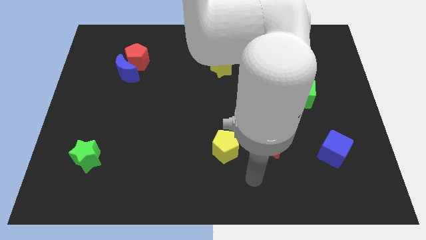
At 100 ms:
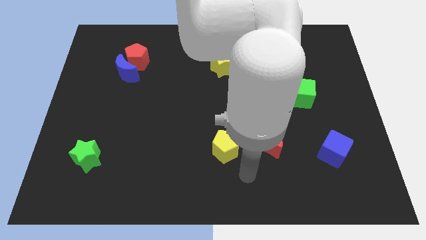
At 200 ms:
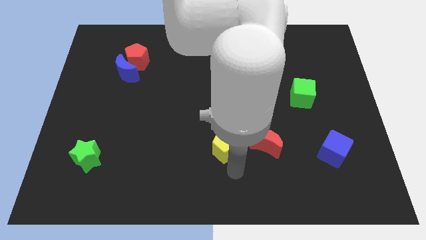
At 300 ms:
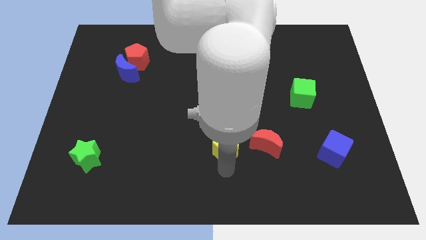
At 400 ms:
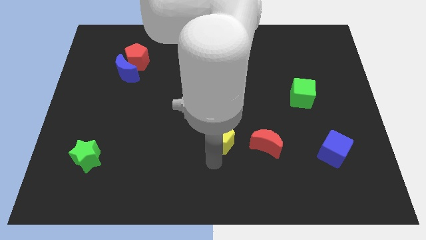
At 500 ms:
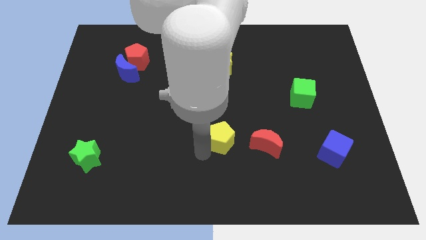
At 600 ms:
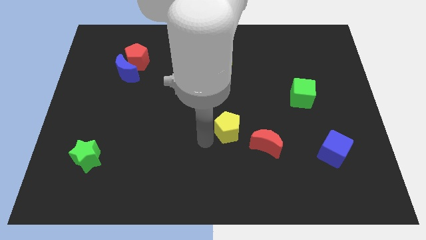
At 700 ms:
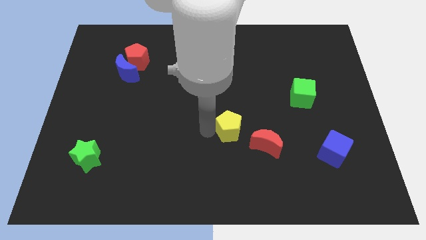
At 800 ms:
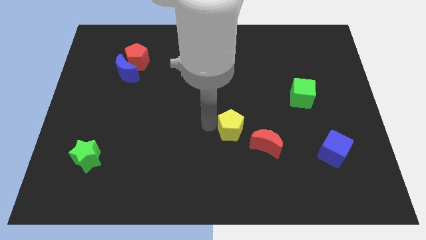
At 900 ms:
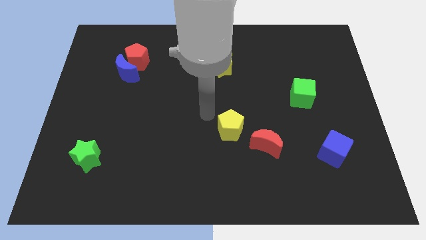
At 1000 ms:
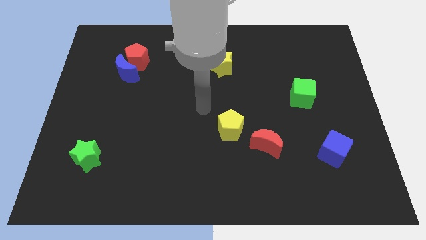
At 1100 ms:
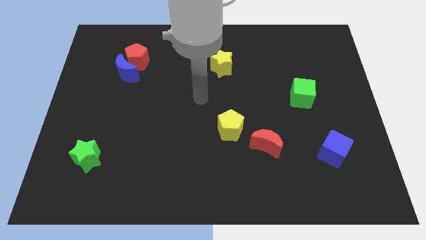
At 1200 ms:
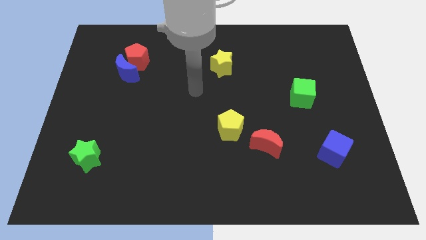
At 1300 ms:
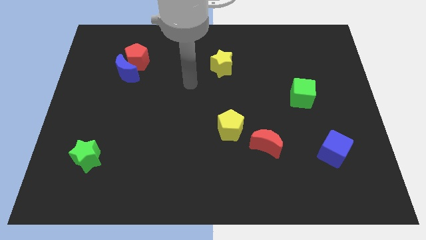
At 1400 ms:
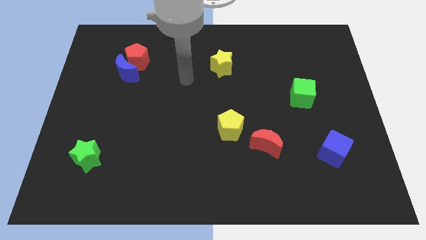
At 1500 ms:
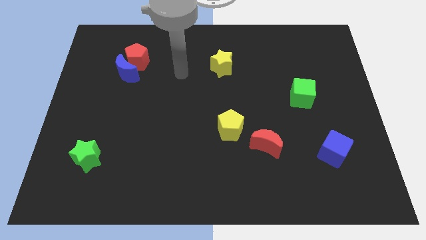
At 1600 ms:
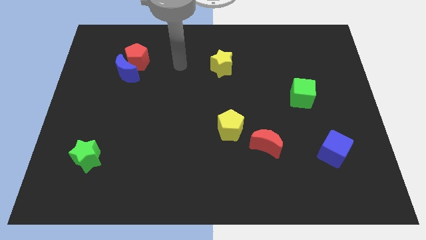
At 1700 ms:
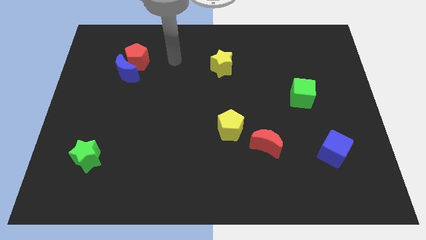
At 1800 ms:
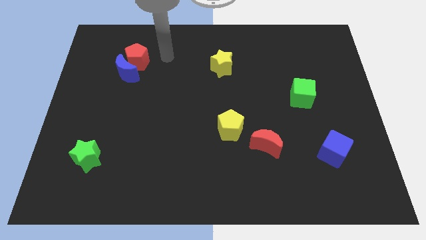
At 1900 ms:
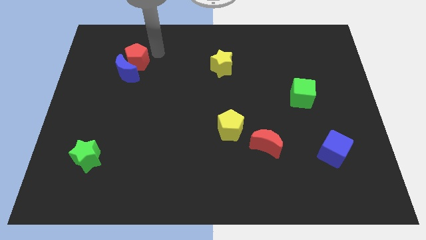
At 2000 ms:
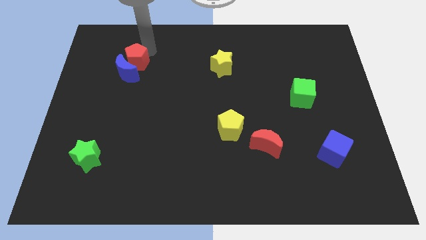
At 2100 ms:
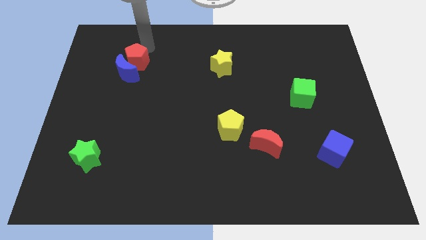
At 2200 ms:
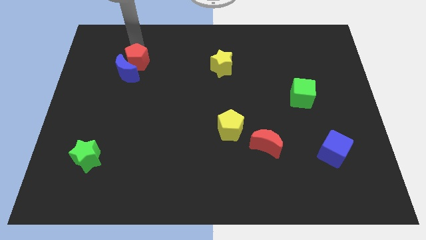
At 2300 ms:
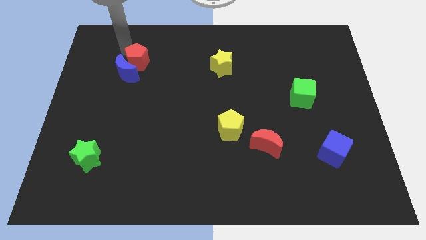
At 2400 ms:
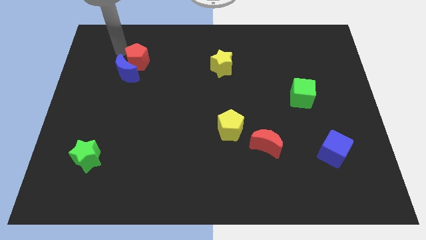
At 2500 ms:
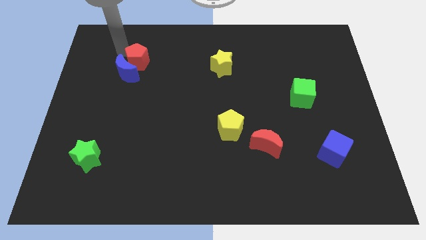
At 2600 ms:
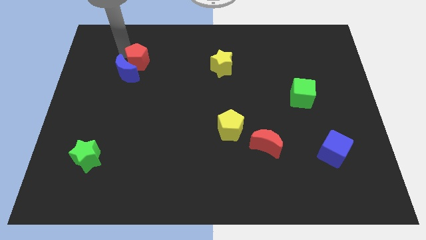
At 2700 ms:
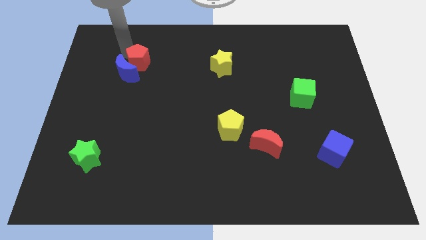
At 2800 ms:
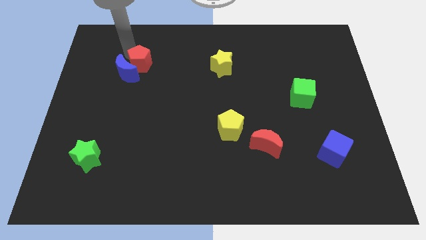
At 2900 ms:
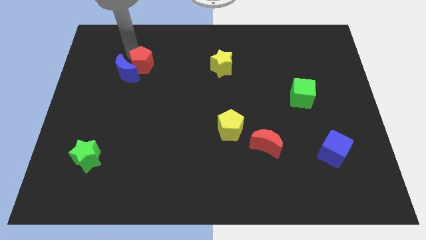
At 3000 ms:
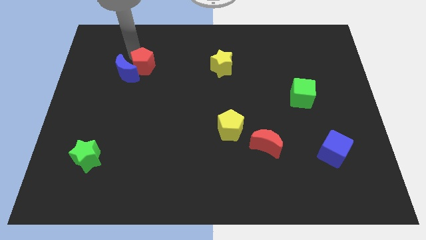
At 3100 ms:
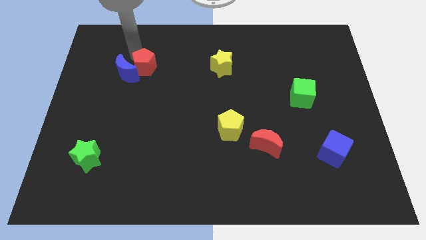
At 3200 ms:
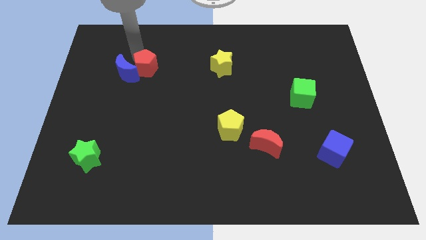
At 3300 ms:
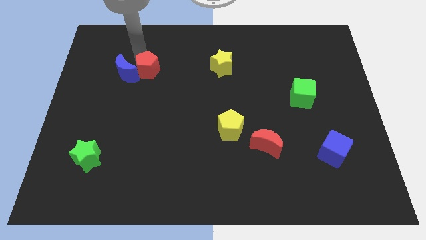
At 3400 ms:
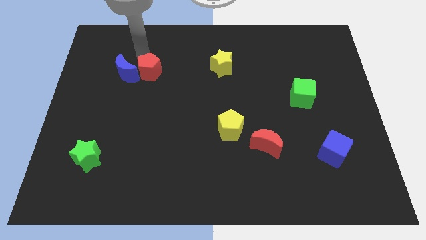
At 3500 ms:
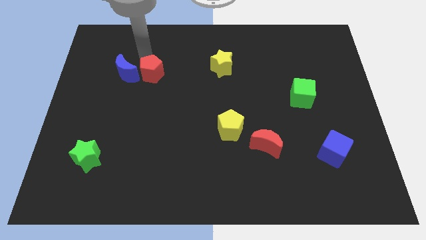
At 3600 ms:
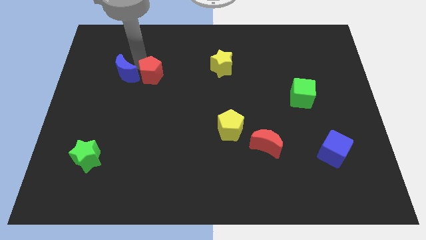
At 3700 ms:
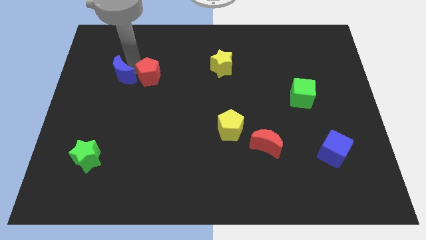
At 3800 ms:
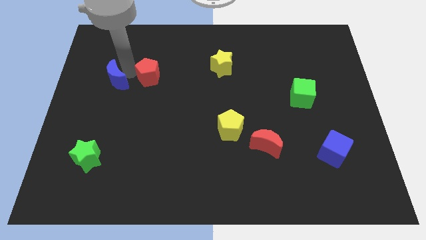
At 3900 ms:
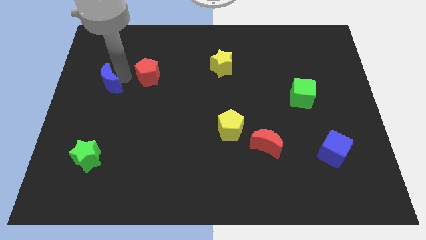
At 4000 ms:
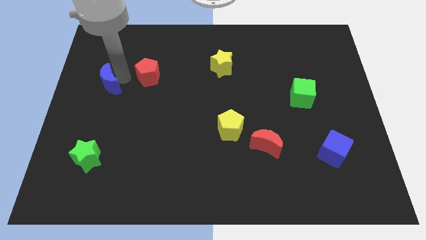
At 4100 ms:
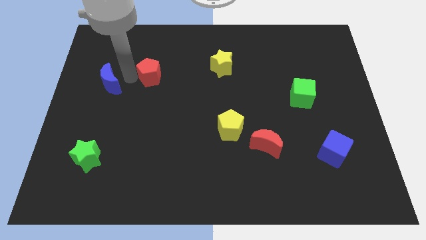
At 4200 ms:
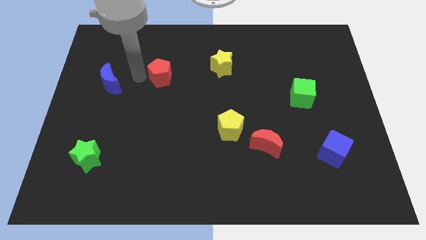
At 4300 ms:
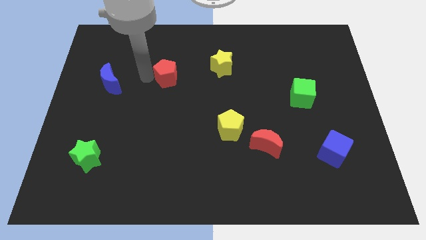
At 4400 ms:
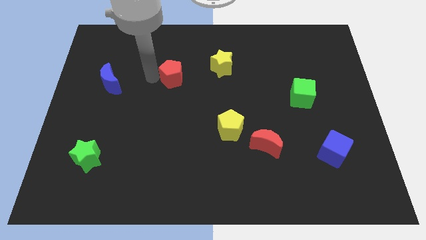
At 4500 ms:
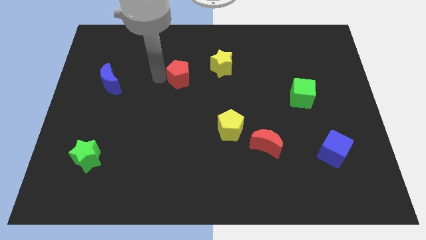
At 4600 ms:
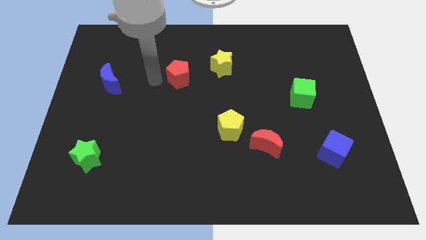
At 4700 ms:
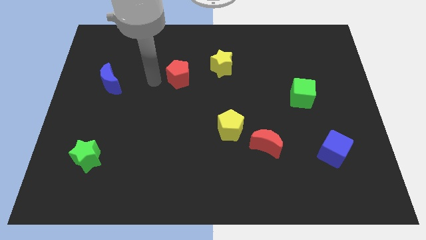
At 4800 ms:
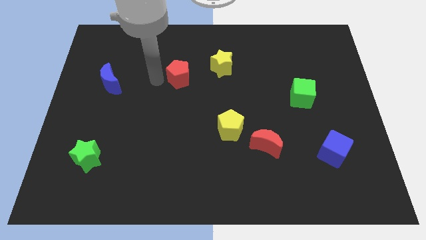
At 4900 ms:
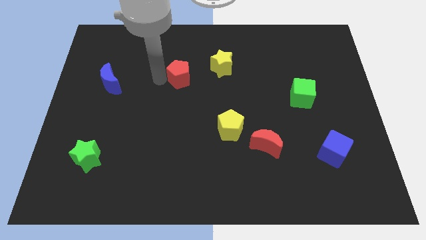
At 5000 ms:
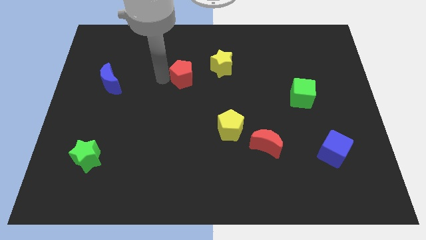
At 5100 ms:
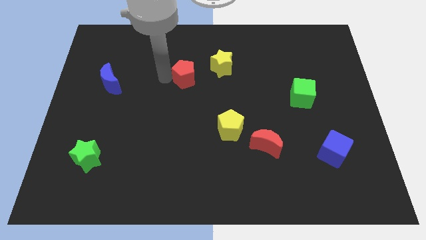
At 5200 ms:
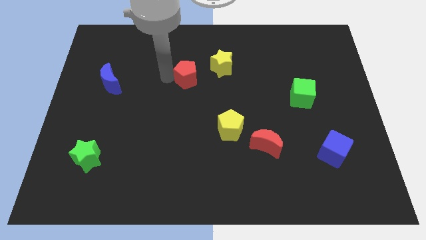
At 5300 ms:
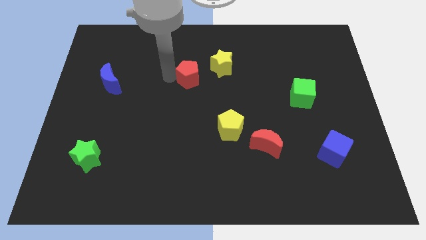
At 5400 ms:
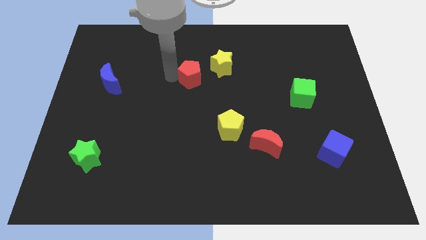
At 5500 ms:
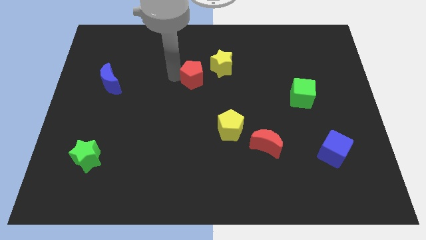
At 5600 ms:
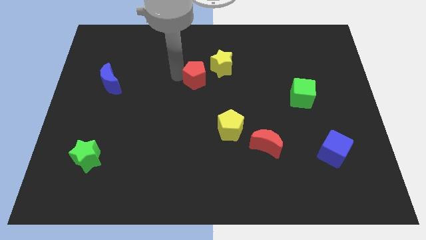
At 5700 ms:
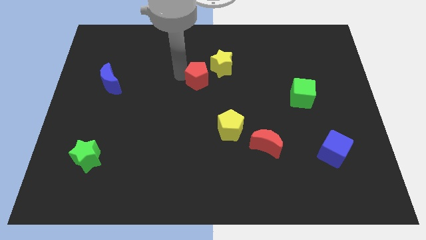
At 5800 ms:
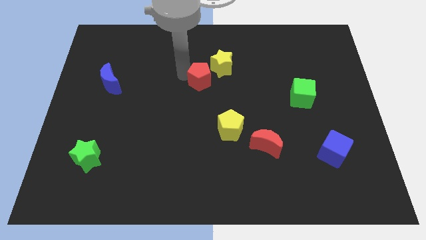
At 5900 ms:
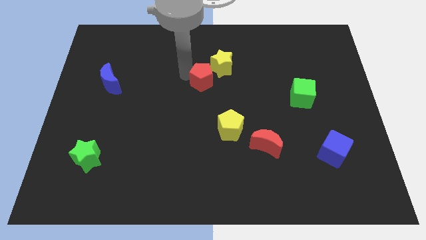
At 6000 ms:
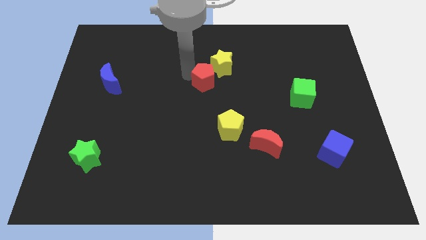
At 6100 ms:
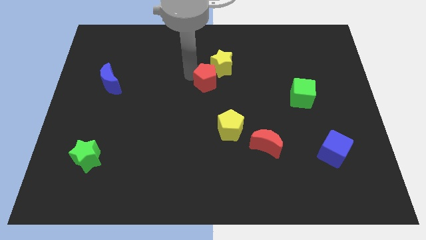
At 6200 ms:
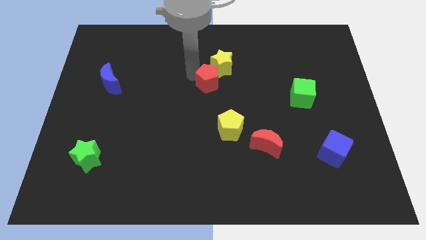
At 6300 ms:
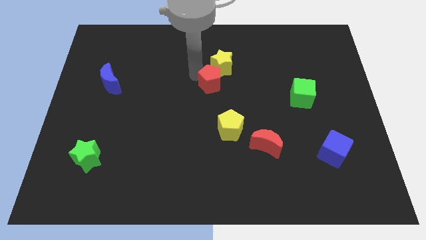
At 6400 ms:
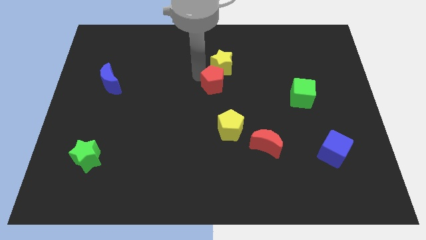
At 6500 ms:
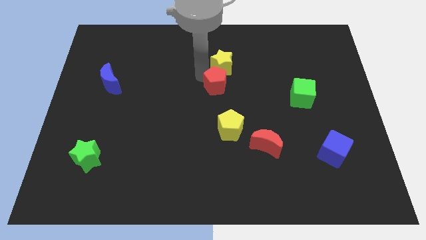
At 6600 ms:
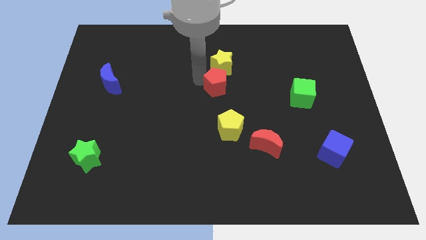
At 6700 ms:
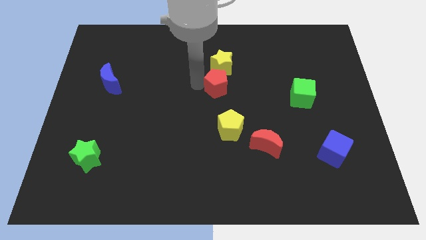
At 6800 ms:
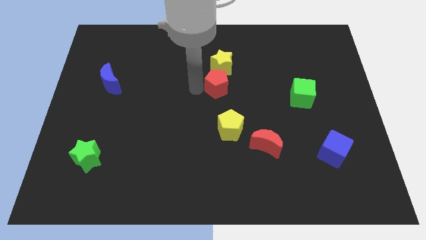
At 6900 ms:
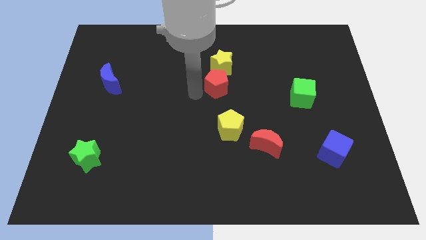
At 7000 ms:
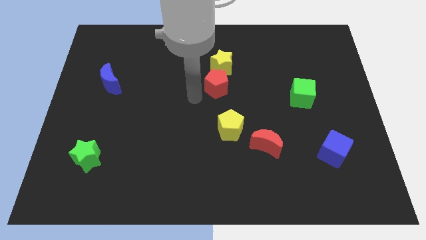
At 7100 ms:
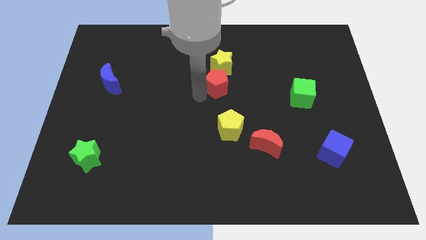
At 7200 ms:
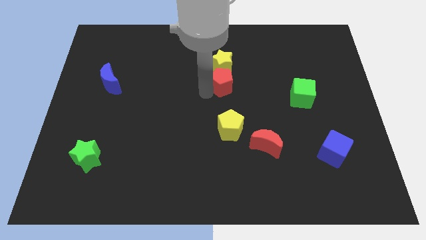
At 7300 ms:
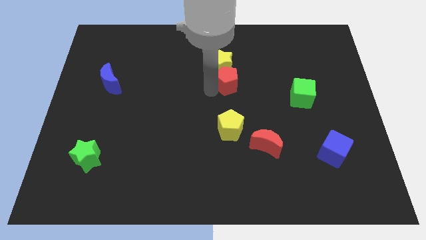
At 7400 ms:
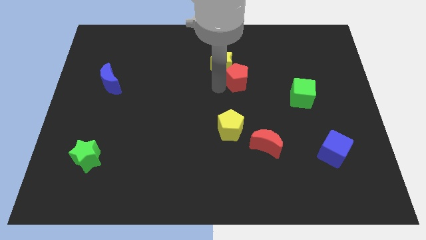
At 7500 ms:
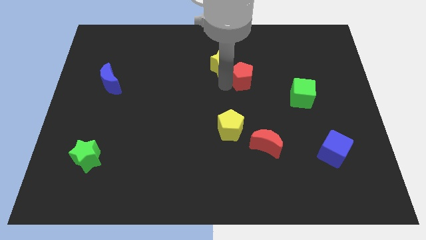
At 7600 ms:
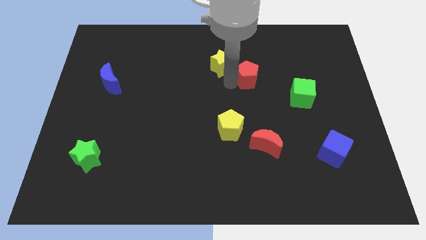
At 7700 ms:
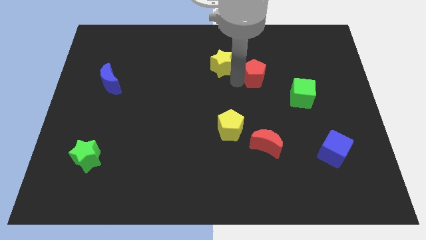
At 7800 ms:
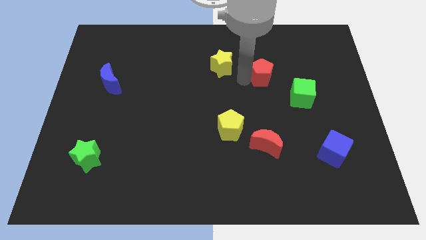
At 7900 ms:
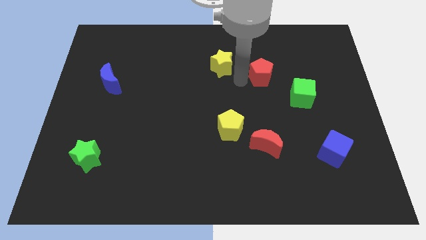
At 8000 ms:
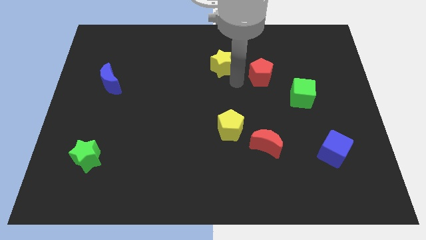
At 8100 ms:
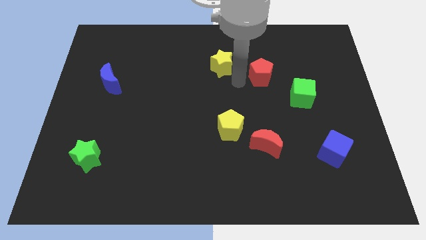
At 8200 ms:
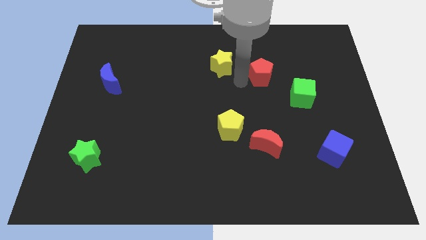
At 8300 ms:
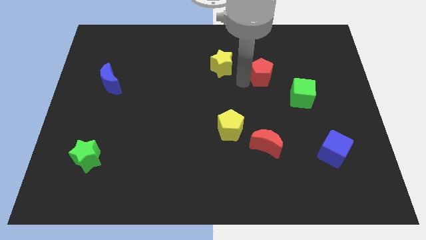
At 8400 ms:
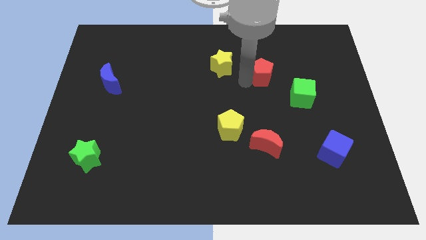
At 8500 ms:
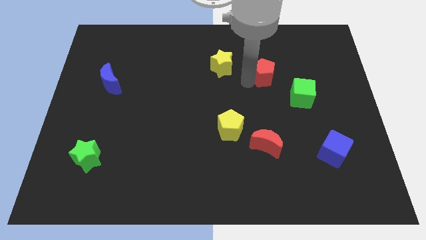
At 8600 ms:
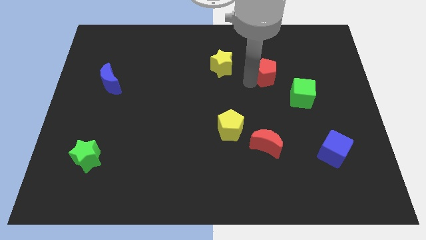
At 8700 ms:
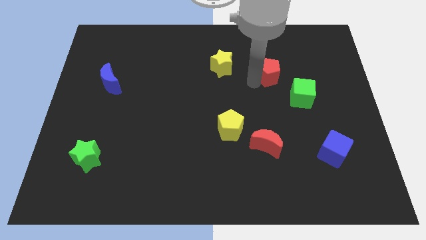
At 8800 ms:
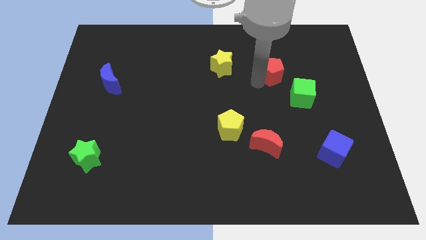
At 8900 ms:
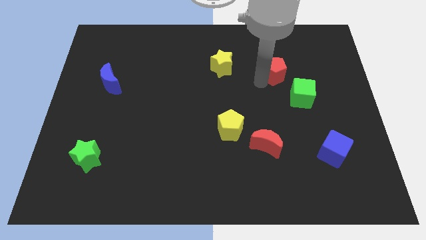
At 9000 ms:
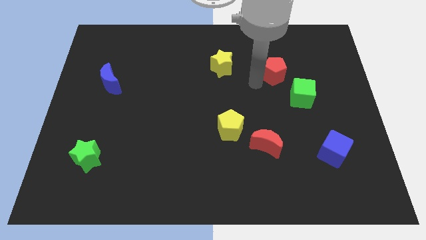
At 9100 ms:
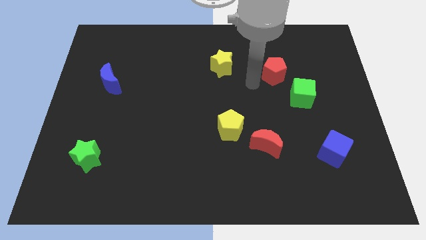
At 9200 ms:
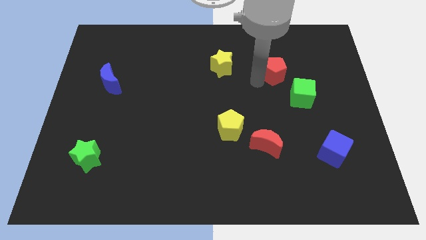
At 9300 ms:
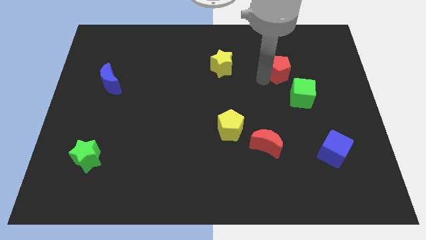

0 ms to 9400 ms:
push the red pentagon to the top side of the green cube
